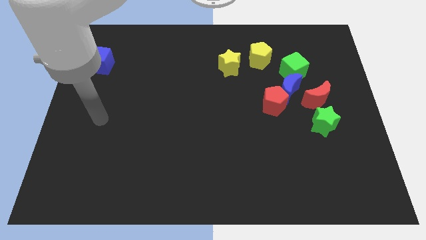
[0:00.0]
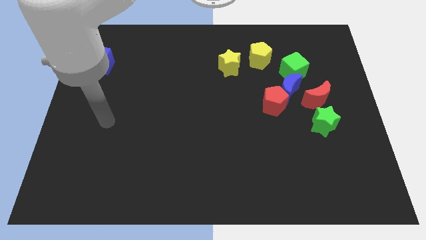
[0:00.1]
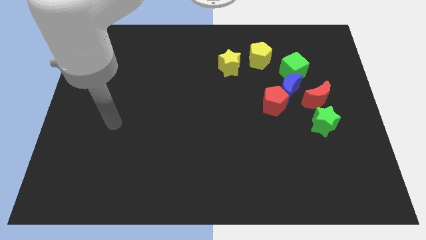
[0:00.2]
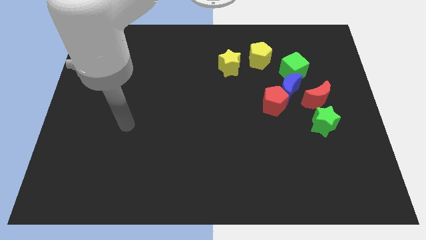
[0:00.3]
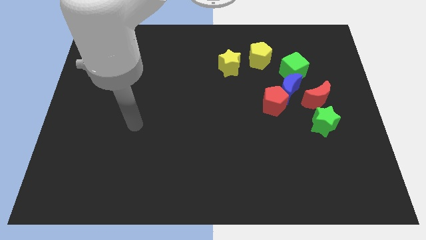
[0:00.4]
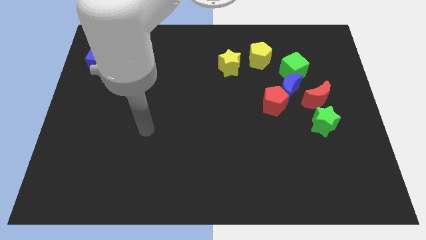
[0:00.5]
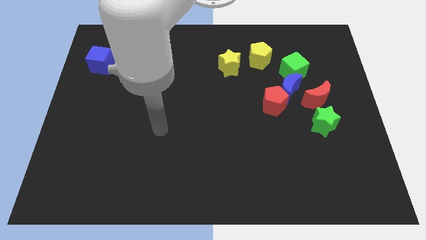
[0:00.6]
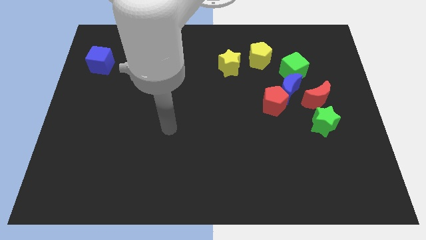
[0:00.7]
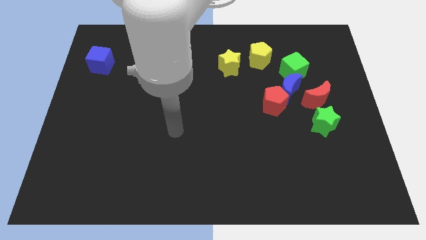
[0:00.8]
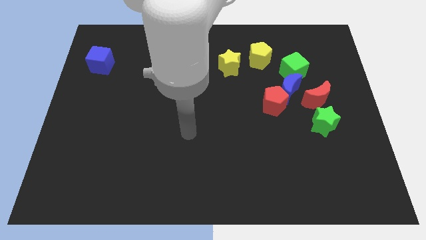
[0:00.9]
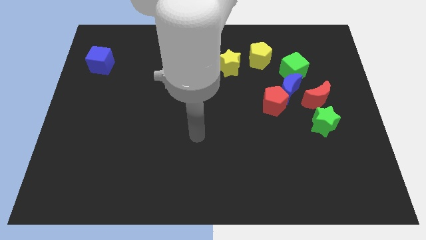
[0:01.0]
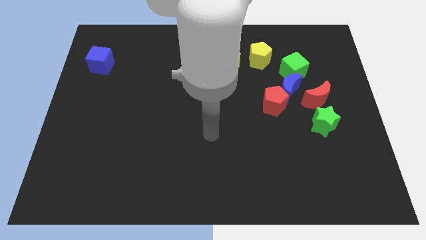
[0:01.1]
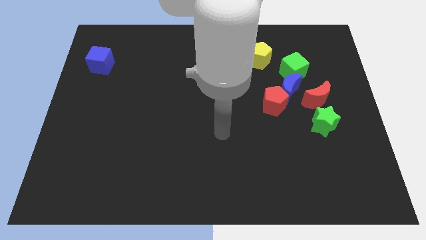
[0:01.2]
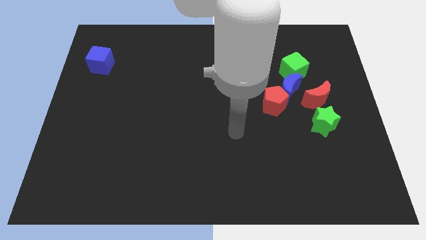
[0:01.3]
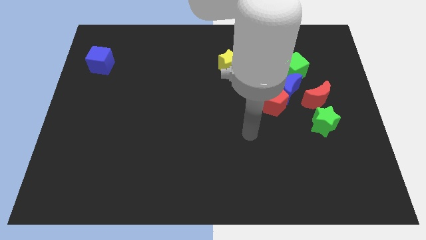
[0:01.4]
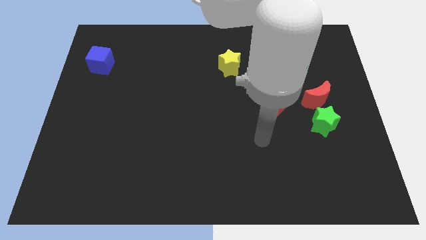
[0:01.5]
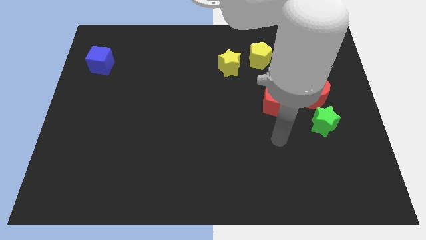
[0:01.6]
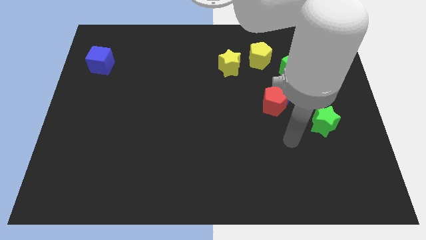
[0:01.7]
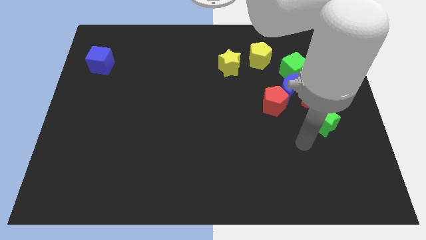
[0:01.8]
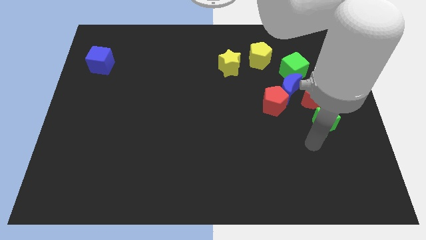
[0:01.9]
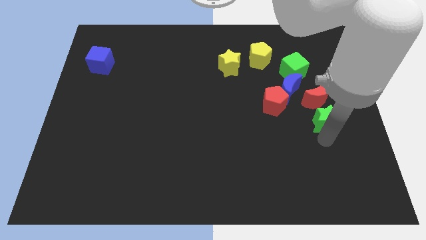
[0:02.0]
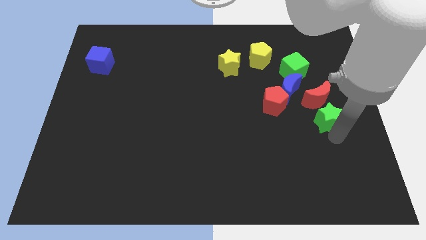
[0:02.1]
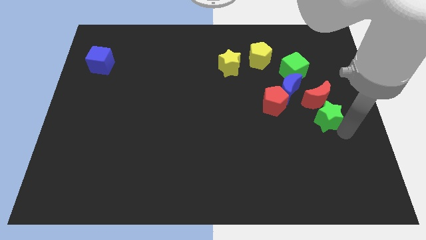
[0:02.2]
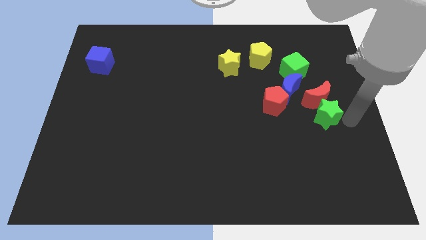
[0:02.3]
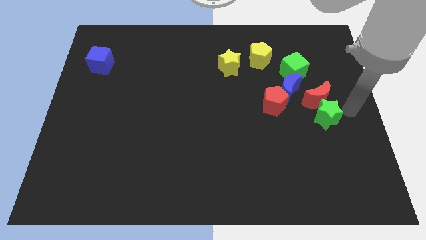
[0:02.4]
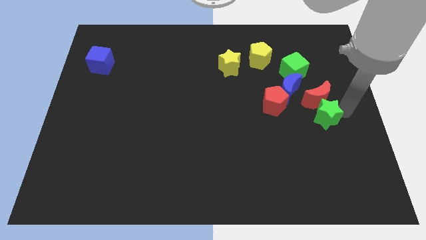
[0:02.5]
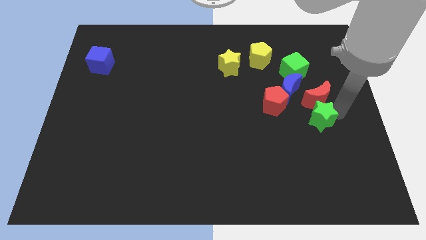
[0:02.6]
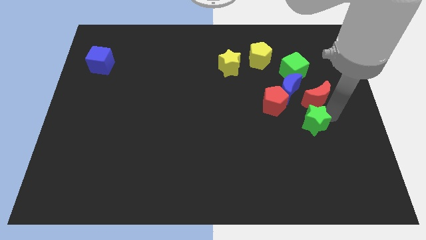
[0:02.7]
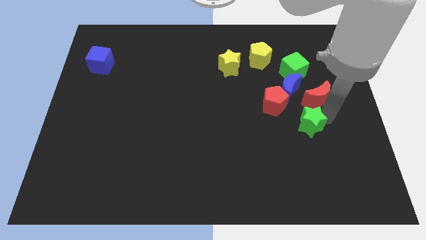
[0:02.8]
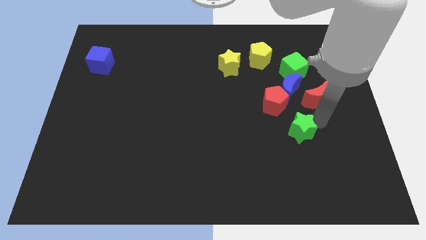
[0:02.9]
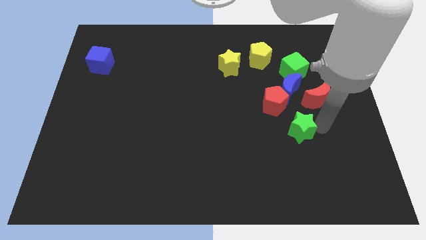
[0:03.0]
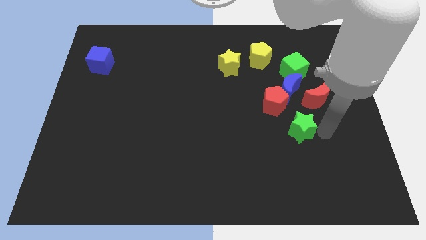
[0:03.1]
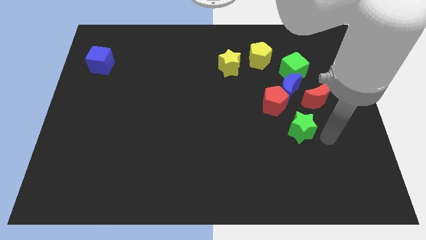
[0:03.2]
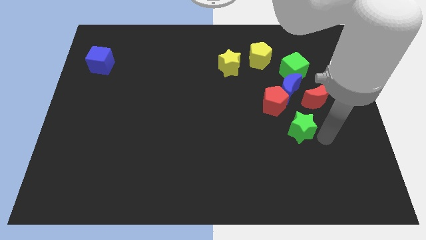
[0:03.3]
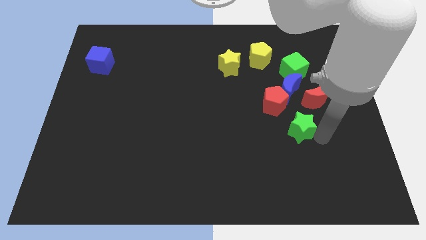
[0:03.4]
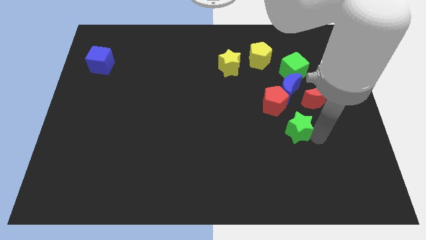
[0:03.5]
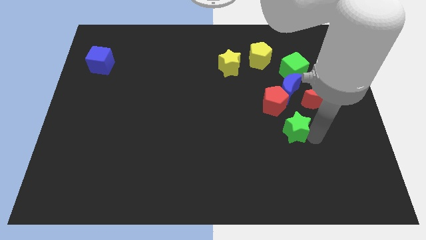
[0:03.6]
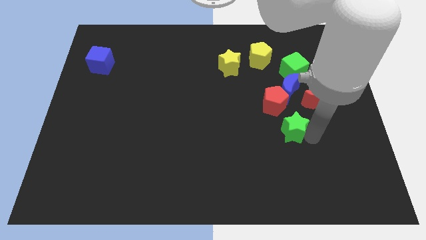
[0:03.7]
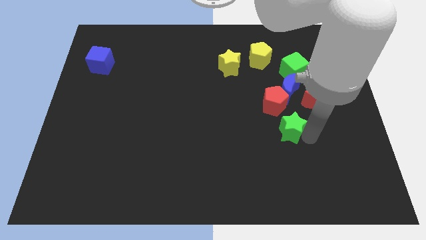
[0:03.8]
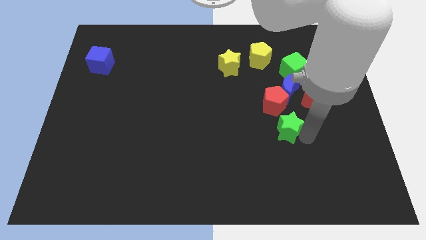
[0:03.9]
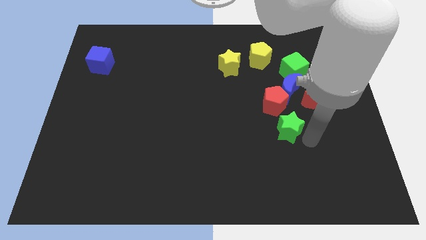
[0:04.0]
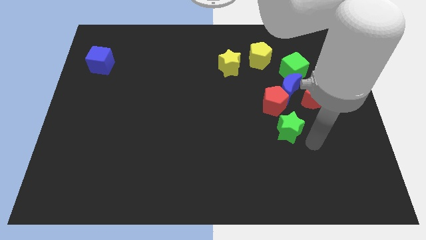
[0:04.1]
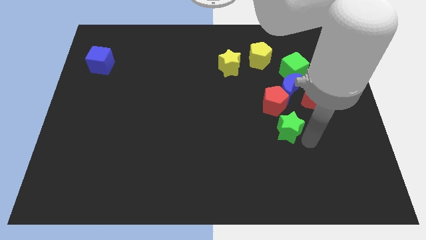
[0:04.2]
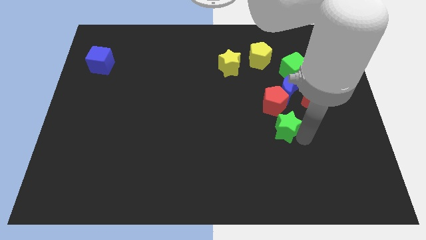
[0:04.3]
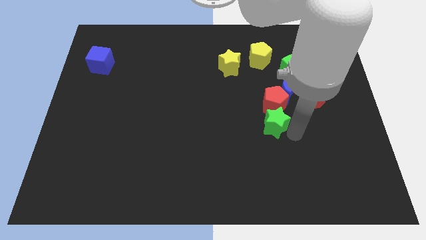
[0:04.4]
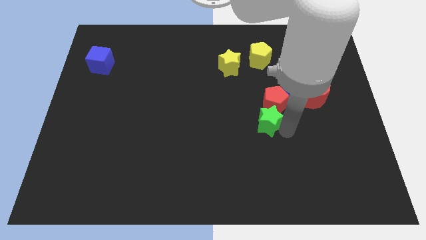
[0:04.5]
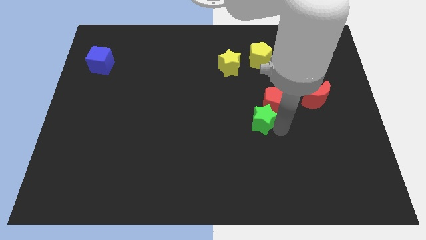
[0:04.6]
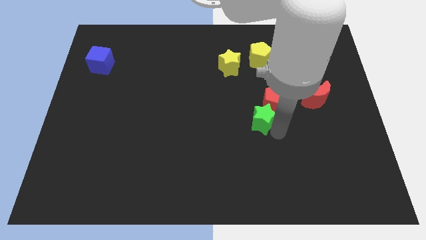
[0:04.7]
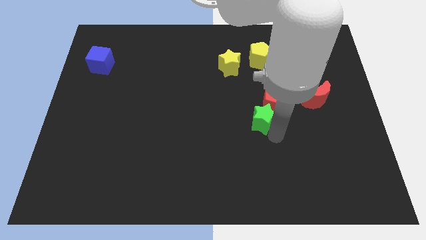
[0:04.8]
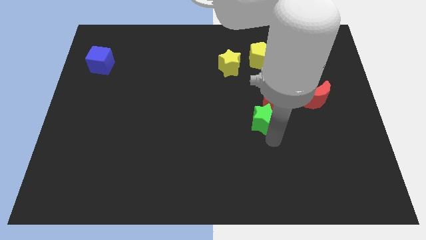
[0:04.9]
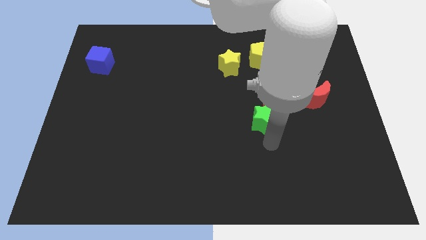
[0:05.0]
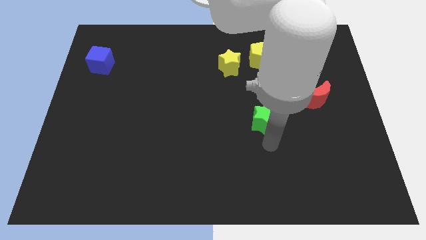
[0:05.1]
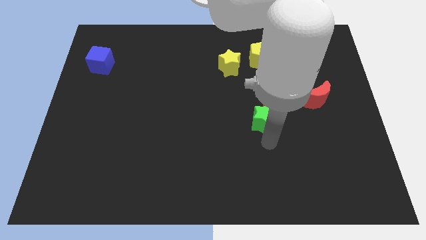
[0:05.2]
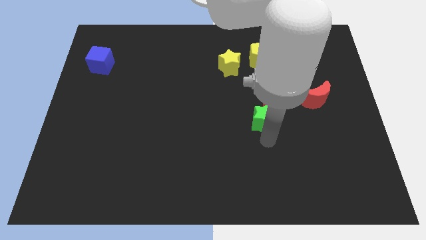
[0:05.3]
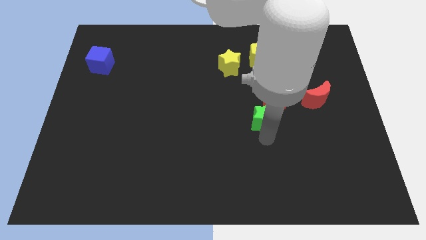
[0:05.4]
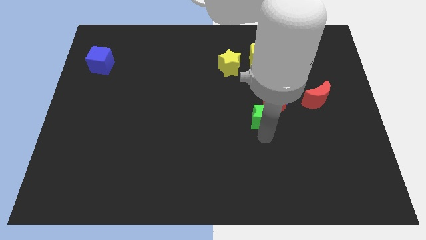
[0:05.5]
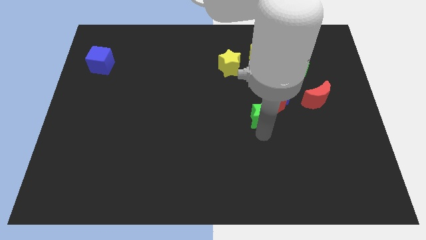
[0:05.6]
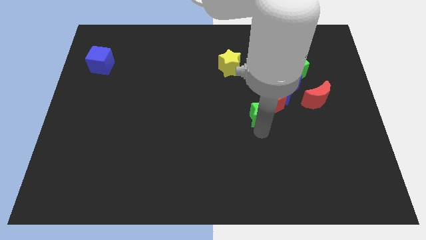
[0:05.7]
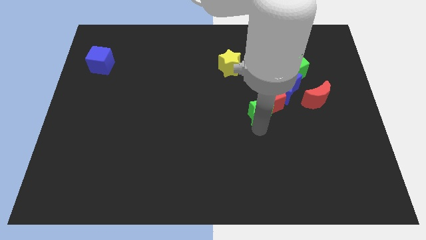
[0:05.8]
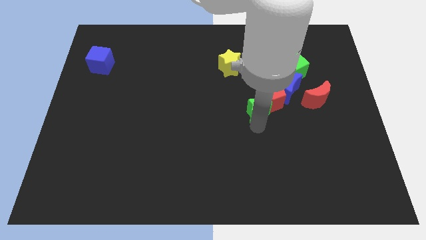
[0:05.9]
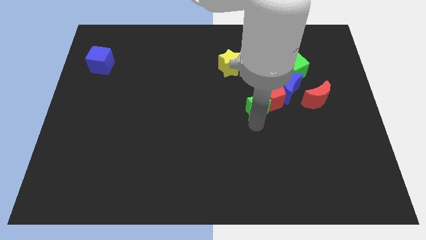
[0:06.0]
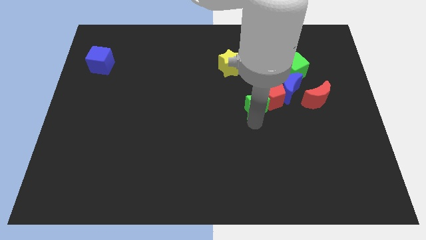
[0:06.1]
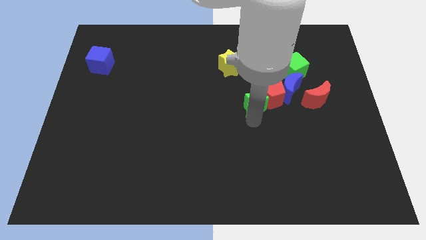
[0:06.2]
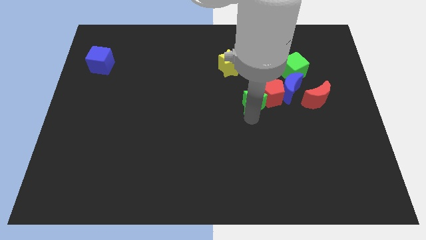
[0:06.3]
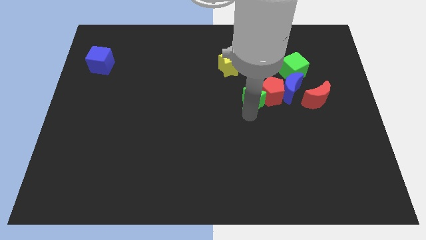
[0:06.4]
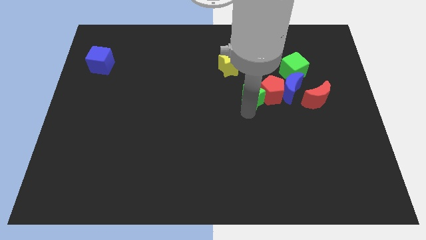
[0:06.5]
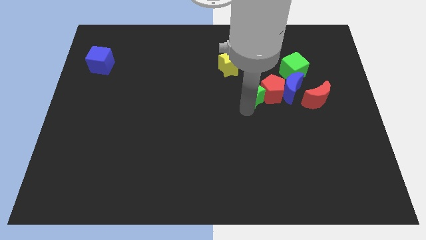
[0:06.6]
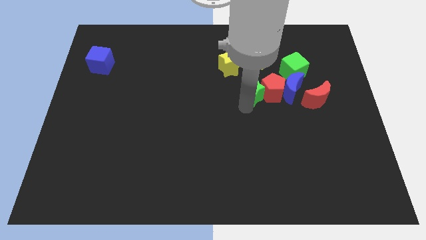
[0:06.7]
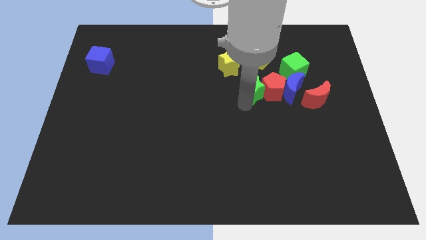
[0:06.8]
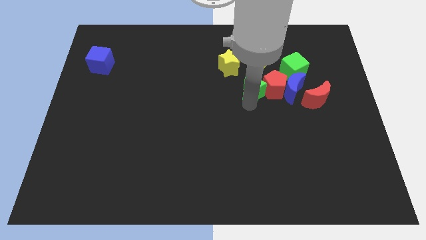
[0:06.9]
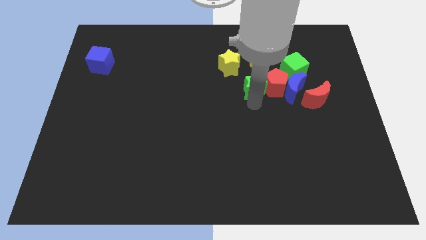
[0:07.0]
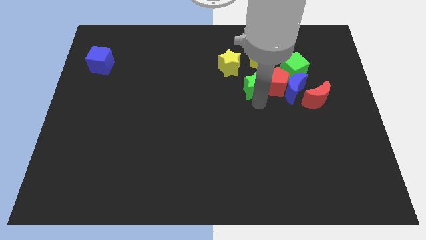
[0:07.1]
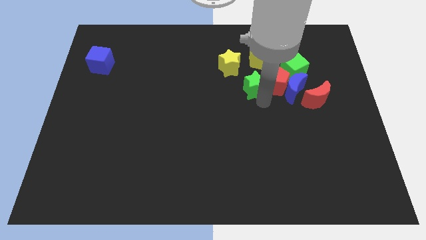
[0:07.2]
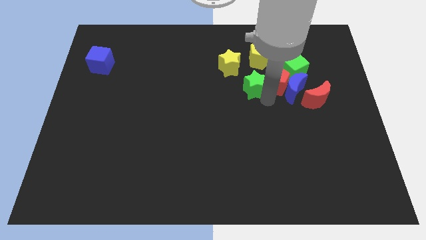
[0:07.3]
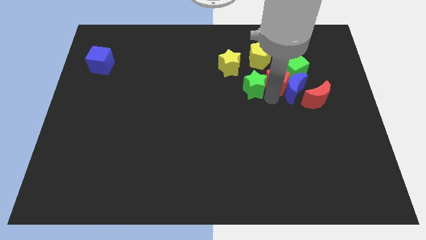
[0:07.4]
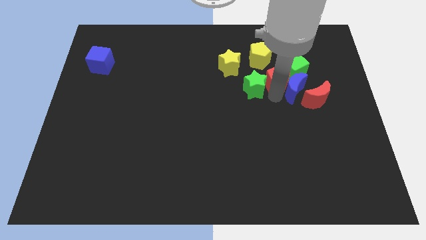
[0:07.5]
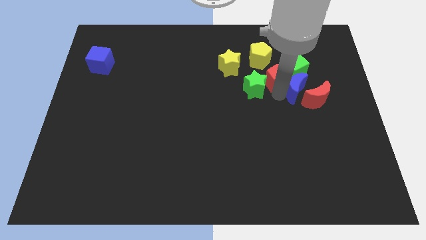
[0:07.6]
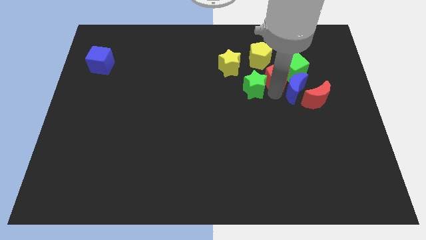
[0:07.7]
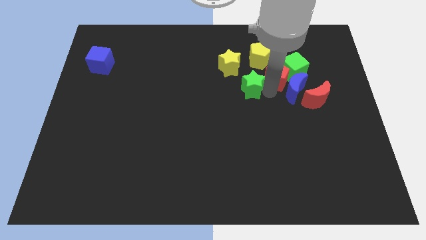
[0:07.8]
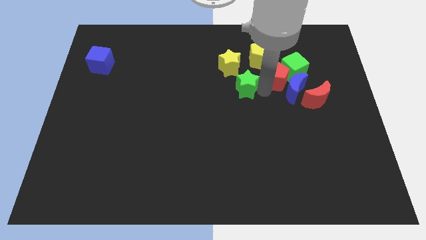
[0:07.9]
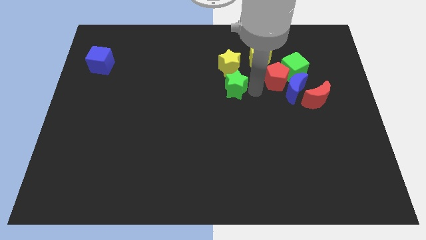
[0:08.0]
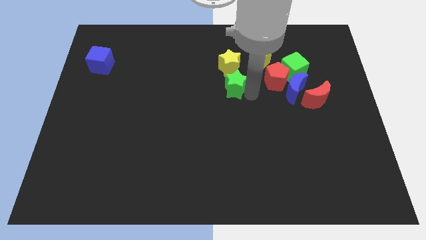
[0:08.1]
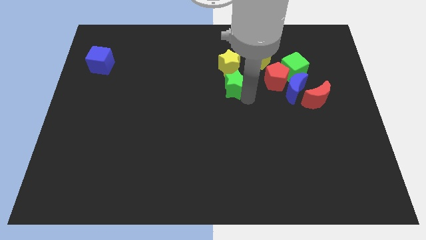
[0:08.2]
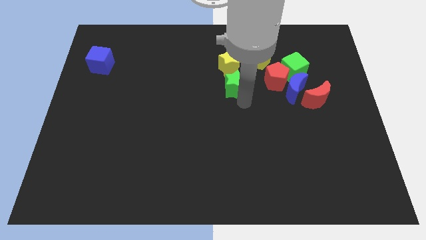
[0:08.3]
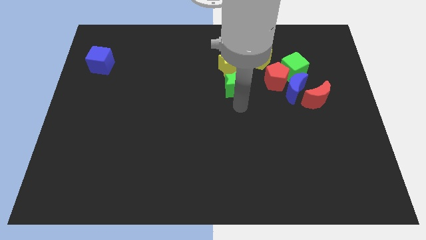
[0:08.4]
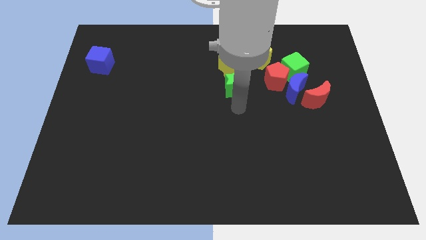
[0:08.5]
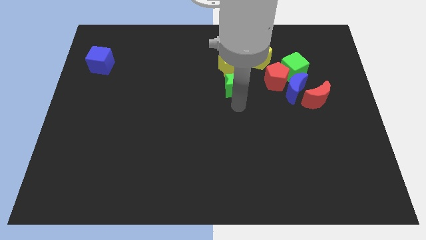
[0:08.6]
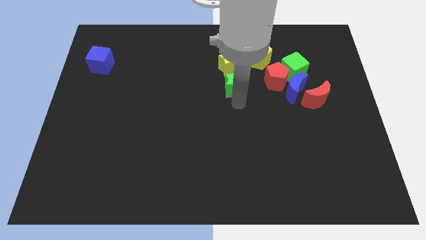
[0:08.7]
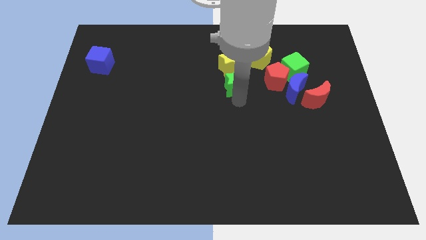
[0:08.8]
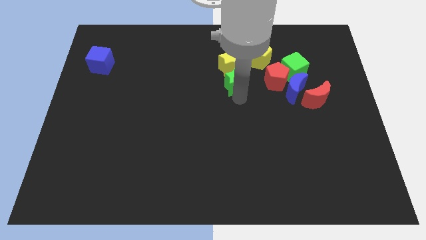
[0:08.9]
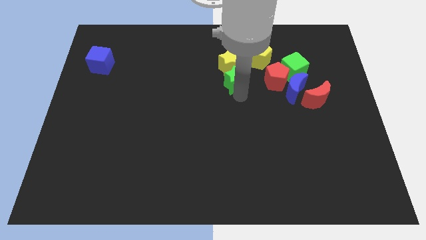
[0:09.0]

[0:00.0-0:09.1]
push the green star towards the yellow star
